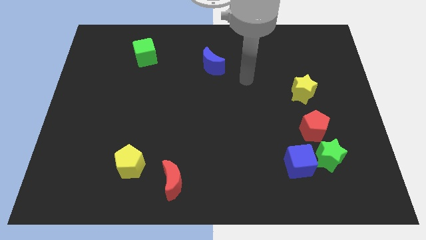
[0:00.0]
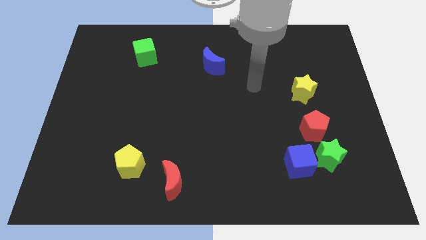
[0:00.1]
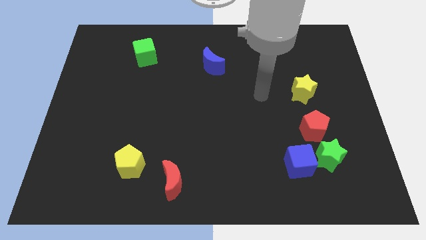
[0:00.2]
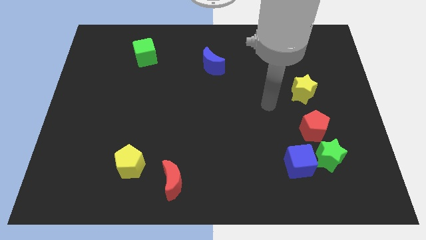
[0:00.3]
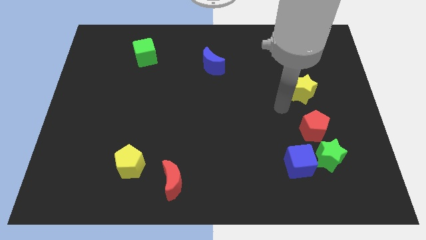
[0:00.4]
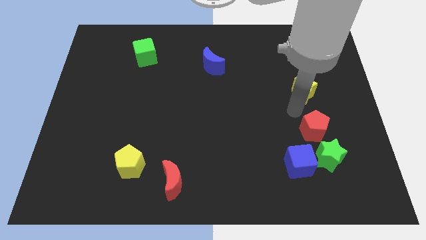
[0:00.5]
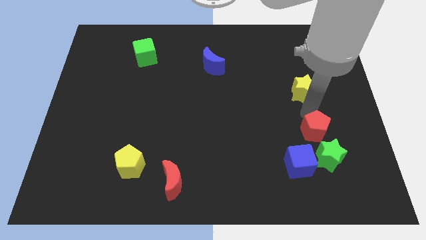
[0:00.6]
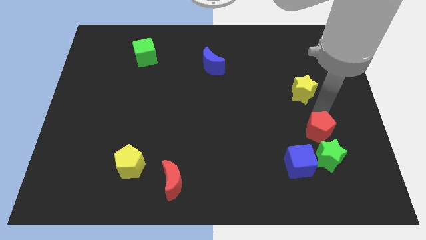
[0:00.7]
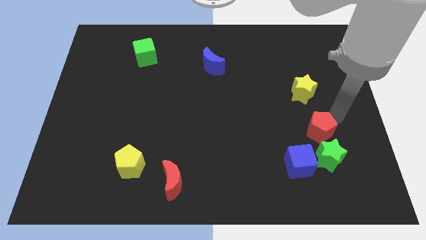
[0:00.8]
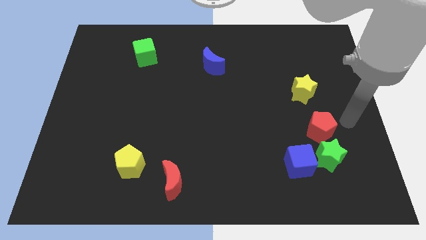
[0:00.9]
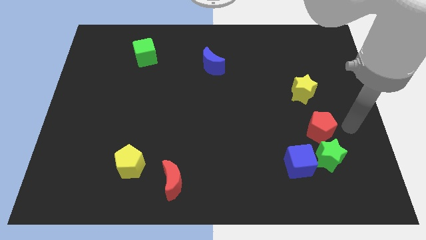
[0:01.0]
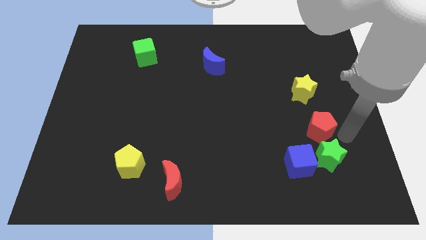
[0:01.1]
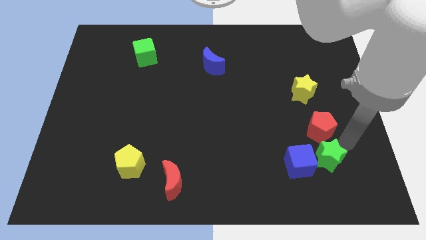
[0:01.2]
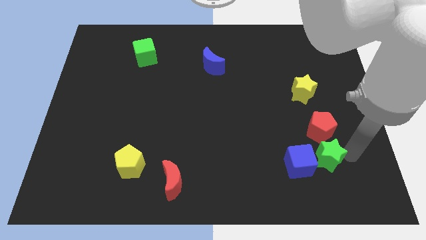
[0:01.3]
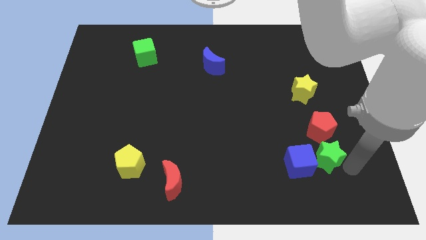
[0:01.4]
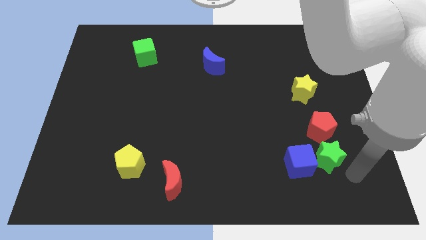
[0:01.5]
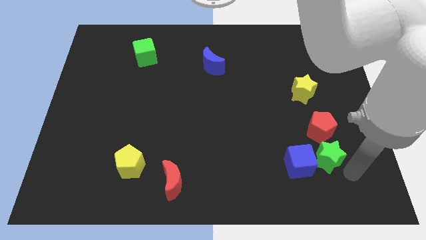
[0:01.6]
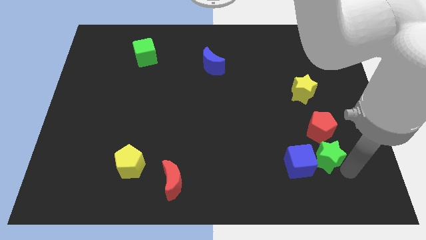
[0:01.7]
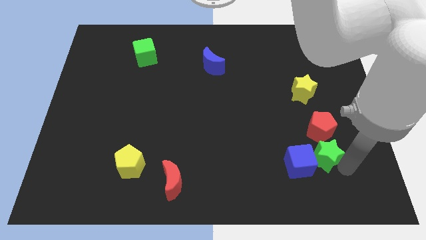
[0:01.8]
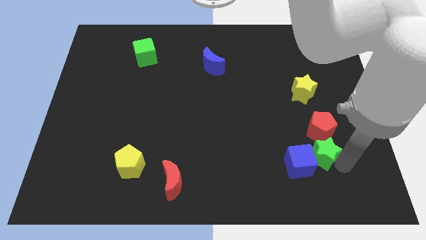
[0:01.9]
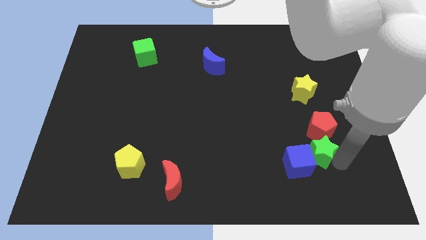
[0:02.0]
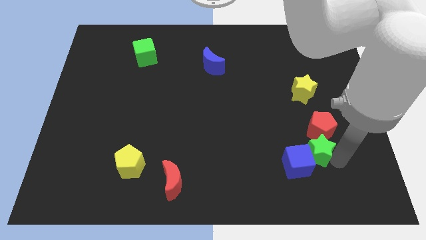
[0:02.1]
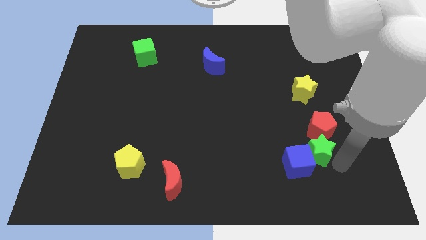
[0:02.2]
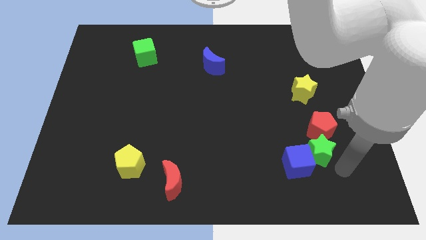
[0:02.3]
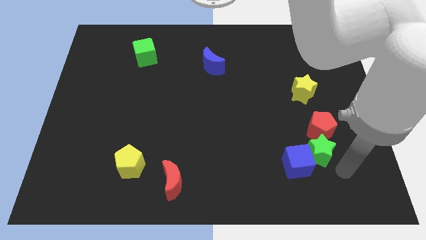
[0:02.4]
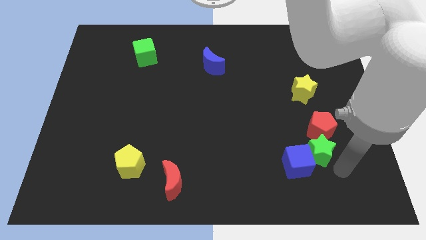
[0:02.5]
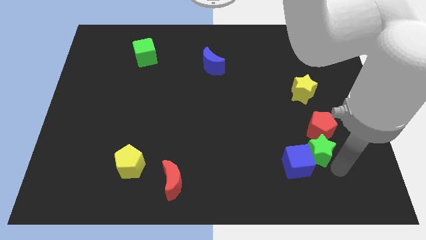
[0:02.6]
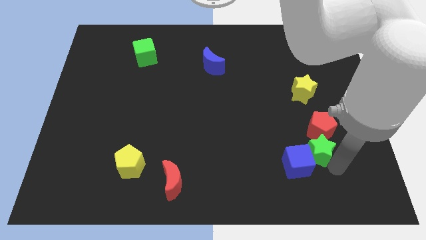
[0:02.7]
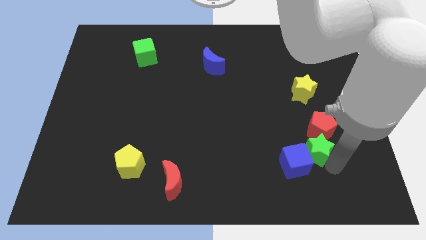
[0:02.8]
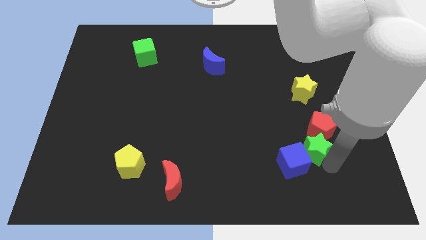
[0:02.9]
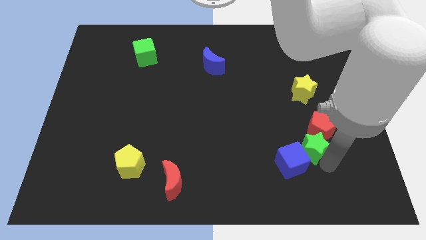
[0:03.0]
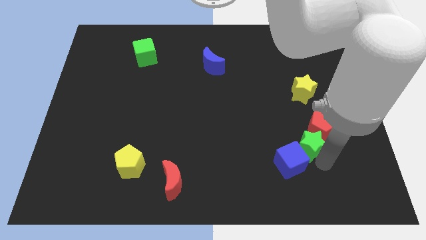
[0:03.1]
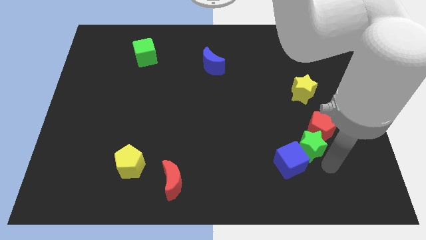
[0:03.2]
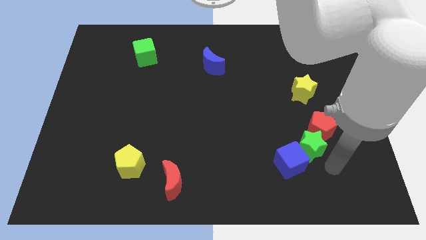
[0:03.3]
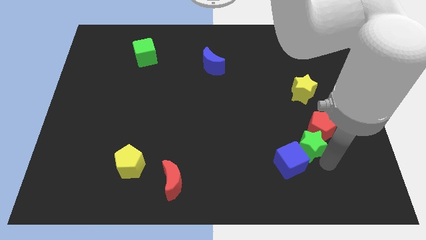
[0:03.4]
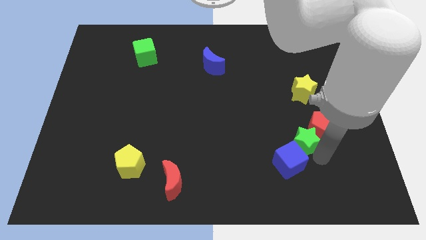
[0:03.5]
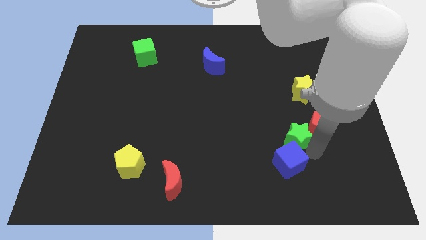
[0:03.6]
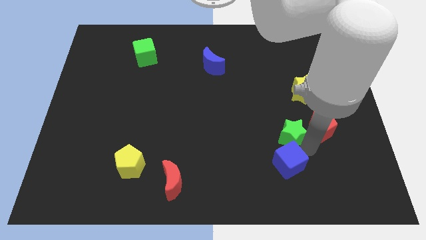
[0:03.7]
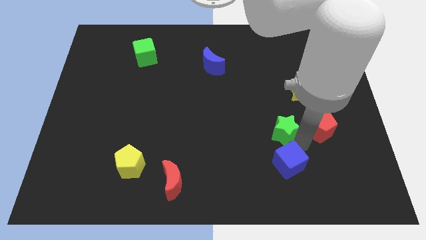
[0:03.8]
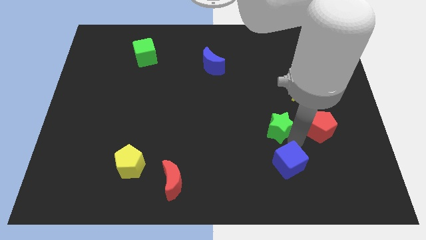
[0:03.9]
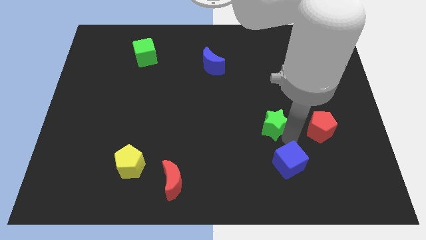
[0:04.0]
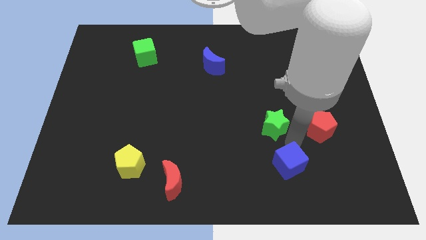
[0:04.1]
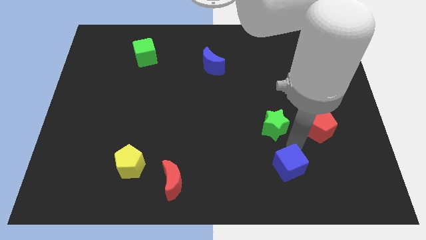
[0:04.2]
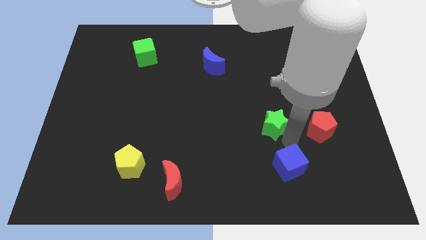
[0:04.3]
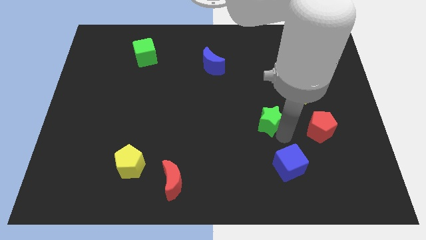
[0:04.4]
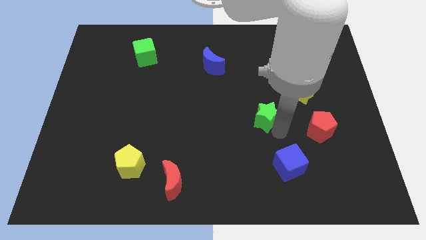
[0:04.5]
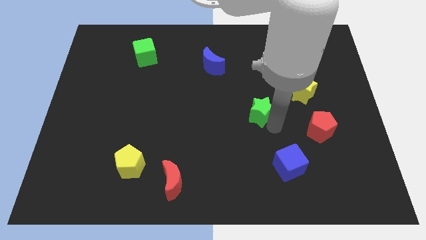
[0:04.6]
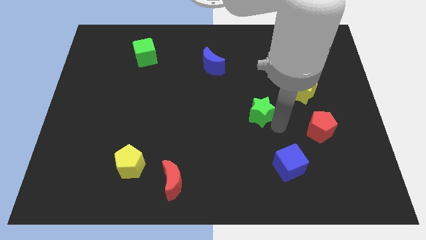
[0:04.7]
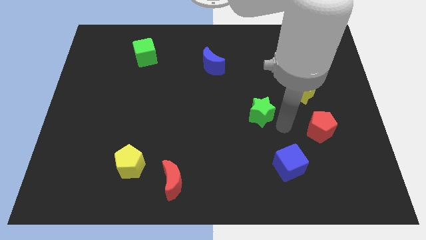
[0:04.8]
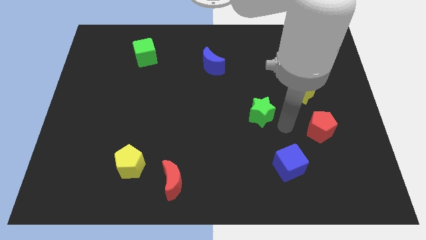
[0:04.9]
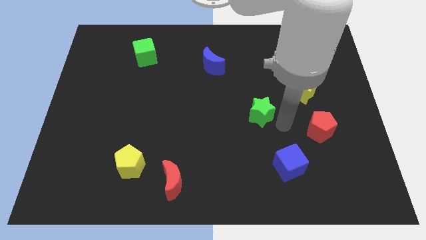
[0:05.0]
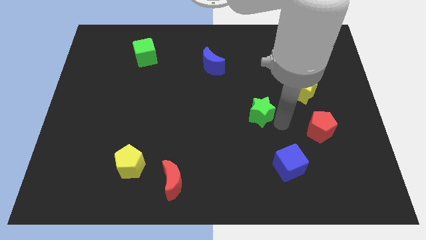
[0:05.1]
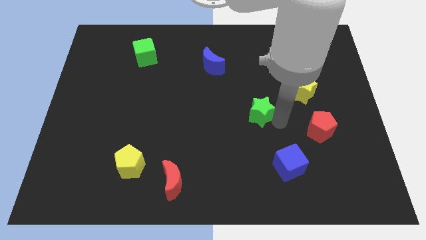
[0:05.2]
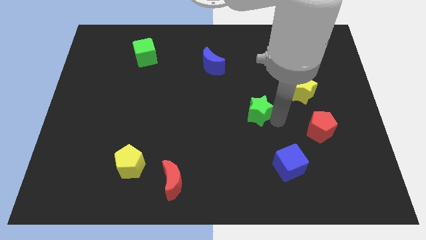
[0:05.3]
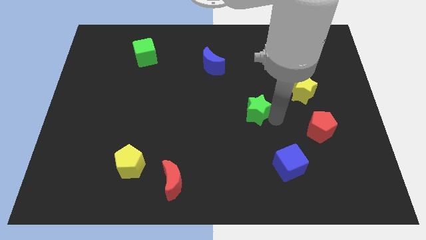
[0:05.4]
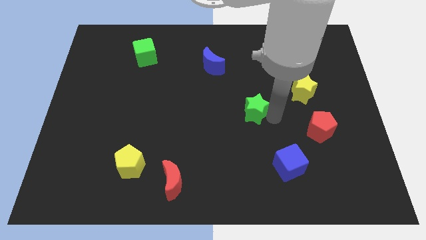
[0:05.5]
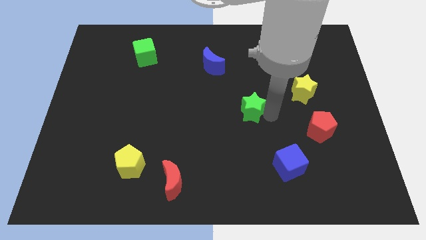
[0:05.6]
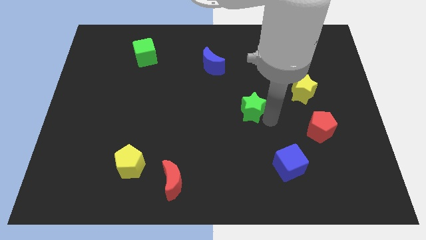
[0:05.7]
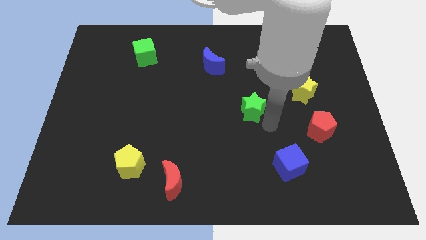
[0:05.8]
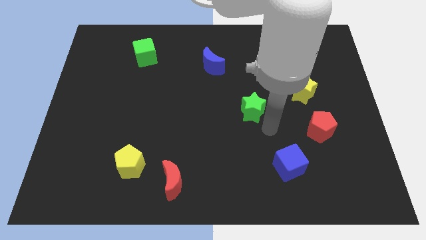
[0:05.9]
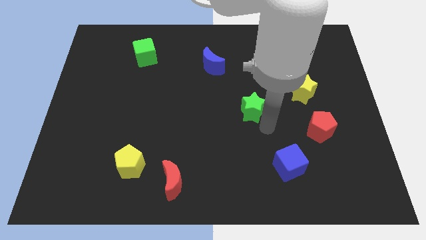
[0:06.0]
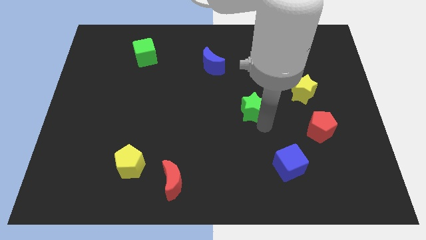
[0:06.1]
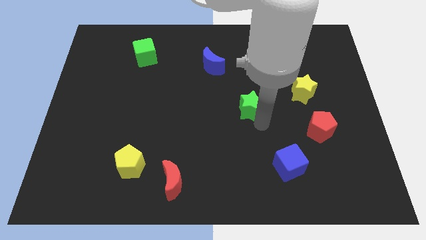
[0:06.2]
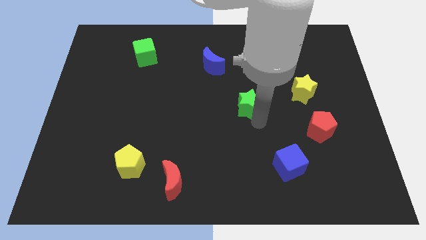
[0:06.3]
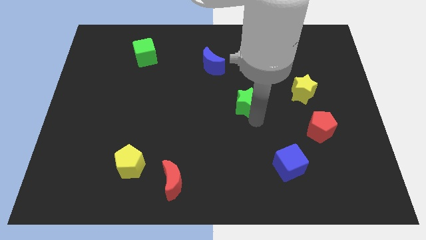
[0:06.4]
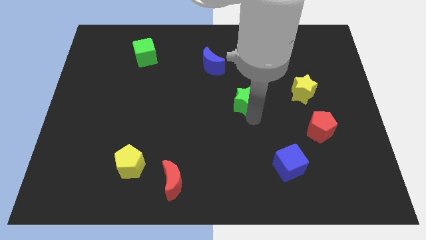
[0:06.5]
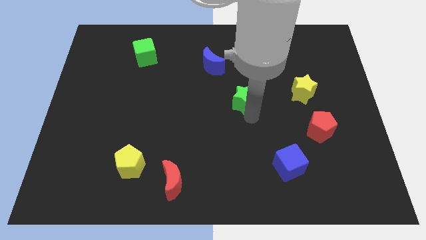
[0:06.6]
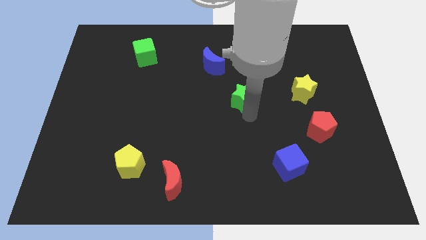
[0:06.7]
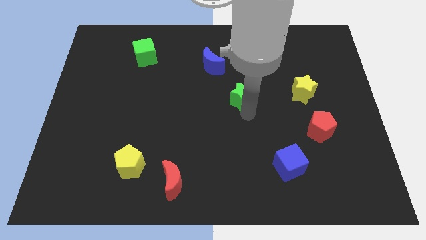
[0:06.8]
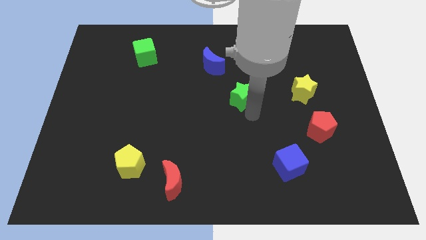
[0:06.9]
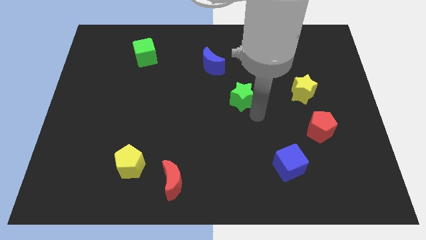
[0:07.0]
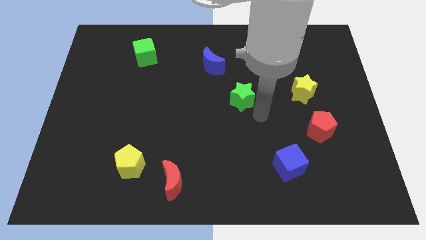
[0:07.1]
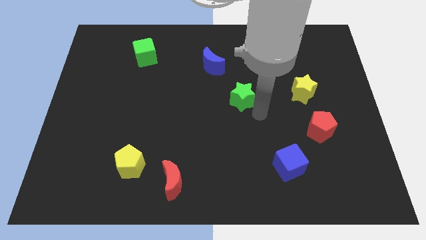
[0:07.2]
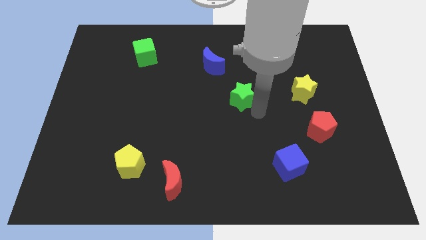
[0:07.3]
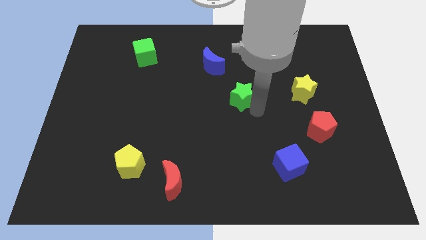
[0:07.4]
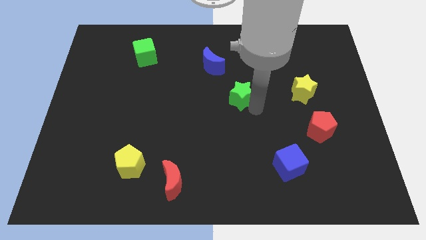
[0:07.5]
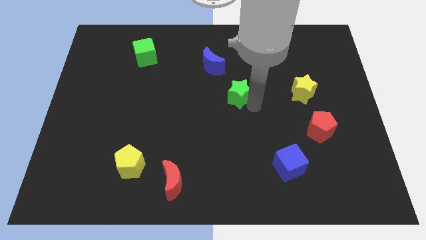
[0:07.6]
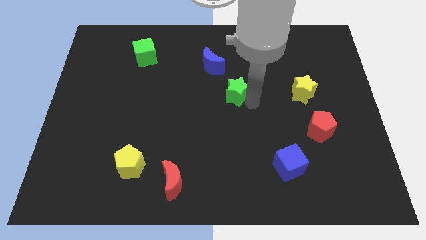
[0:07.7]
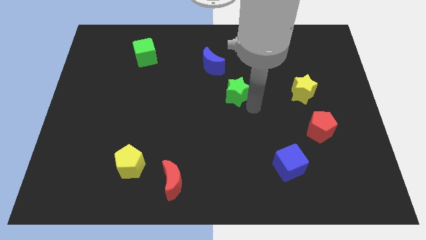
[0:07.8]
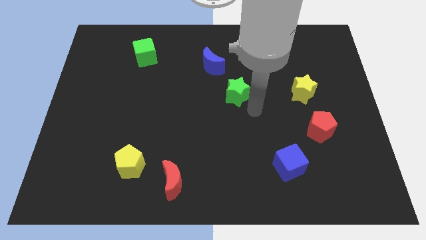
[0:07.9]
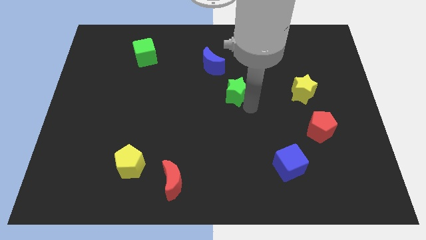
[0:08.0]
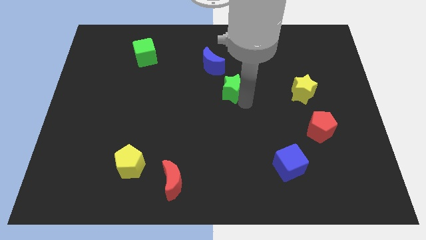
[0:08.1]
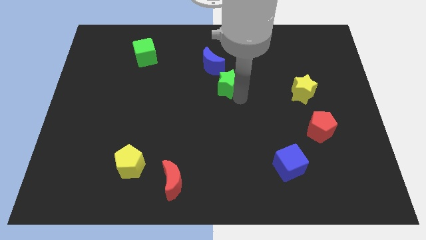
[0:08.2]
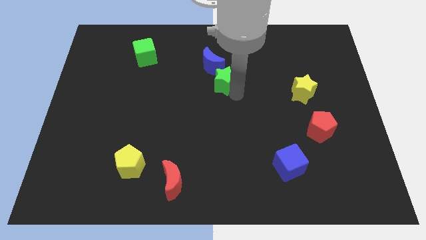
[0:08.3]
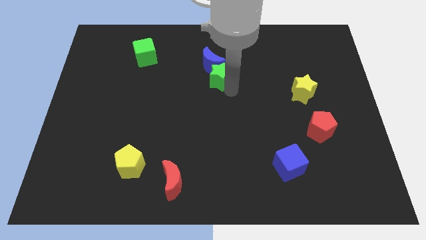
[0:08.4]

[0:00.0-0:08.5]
put the green star close to the blue moon
